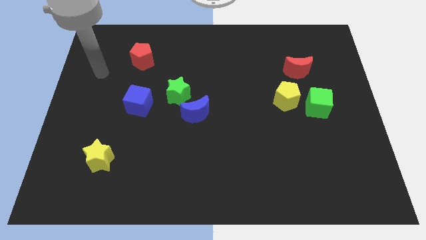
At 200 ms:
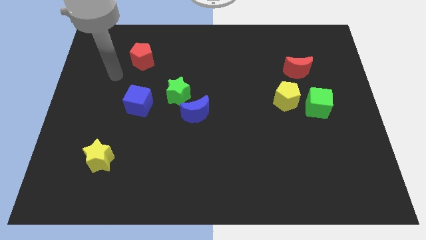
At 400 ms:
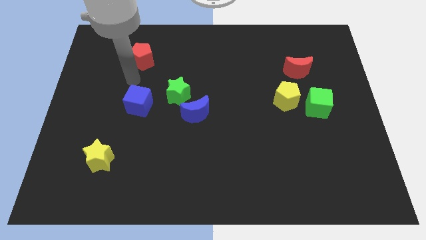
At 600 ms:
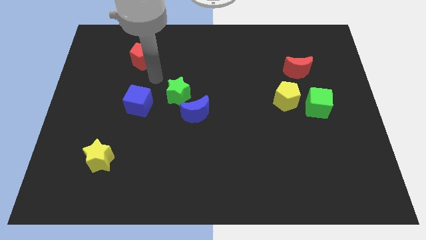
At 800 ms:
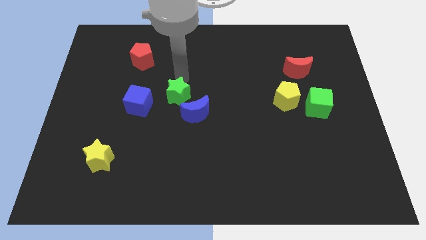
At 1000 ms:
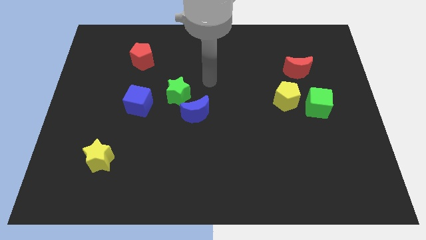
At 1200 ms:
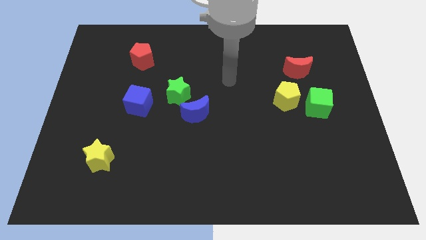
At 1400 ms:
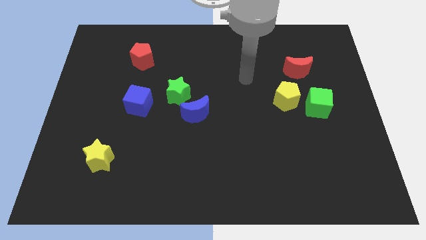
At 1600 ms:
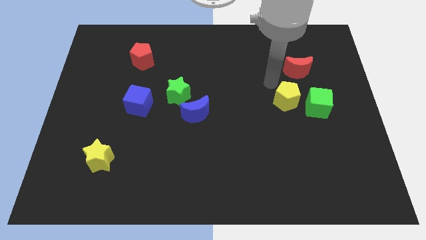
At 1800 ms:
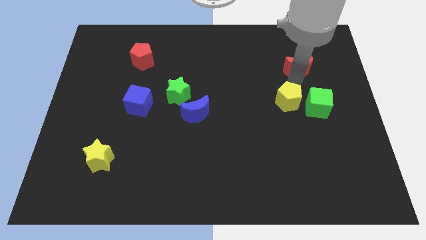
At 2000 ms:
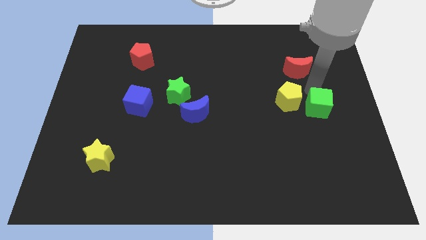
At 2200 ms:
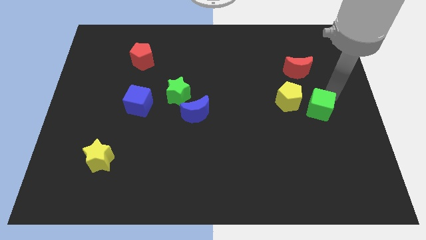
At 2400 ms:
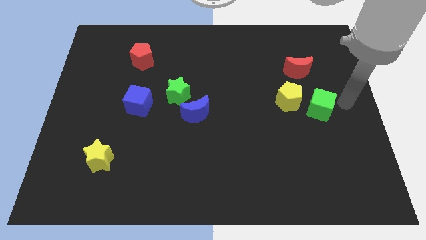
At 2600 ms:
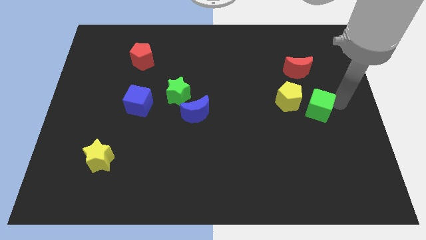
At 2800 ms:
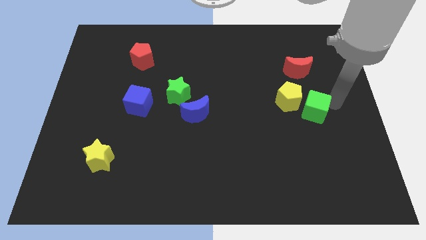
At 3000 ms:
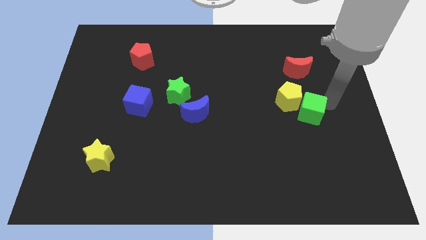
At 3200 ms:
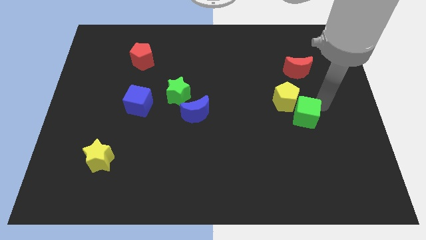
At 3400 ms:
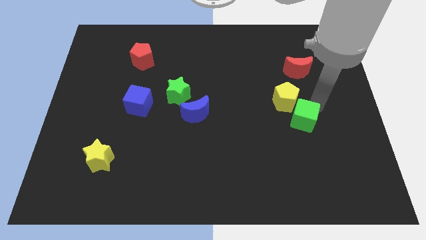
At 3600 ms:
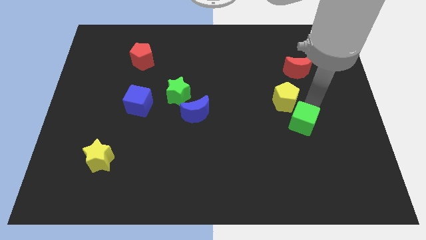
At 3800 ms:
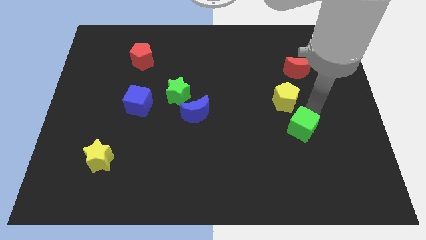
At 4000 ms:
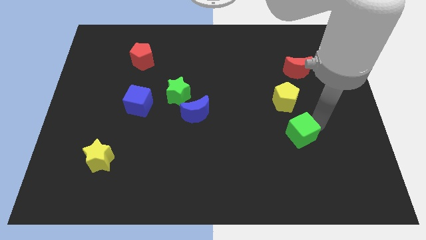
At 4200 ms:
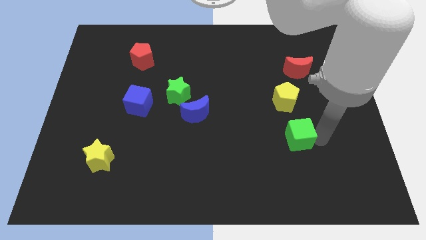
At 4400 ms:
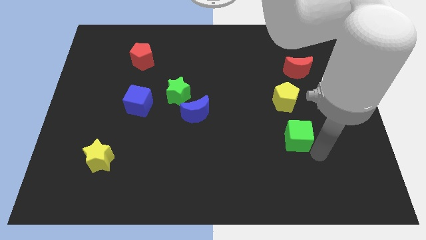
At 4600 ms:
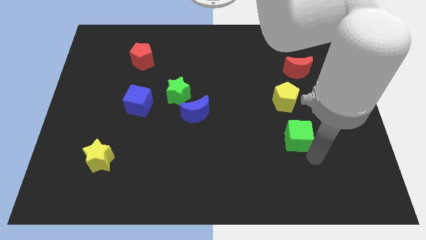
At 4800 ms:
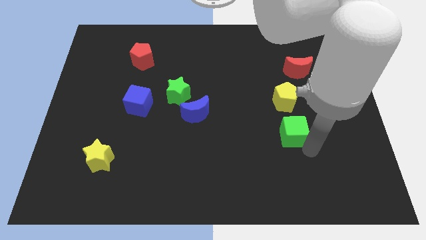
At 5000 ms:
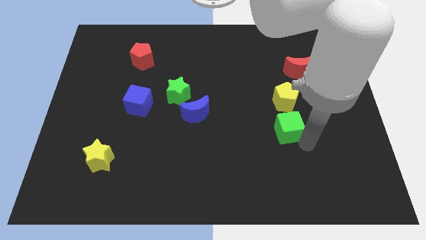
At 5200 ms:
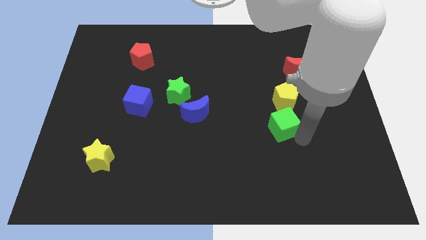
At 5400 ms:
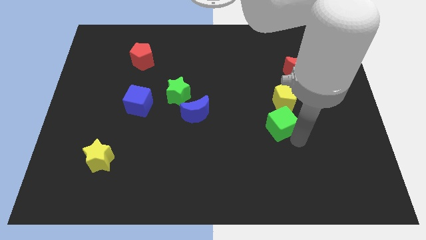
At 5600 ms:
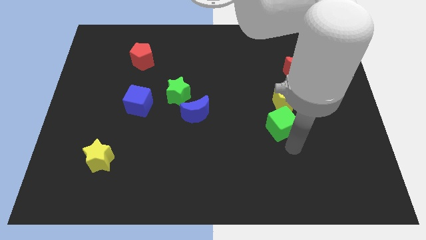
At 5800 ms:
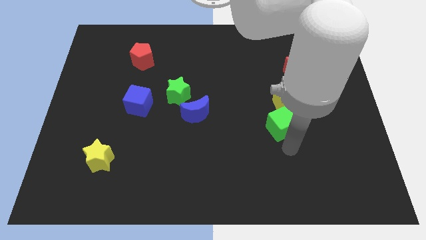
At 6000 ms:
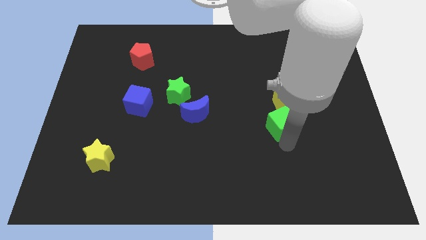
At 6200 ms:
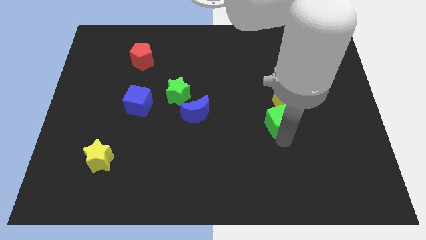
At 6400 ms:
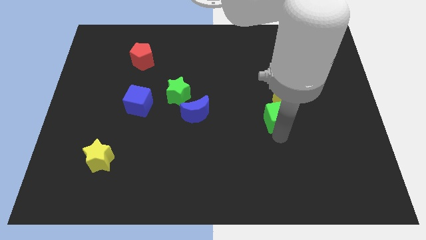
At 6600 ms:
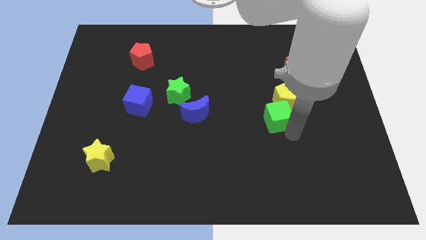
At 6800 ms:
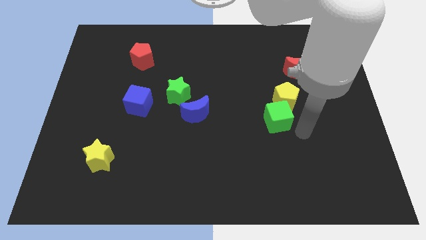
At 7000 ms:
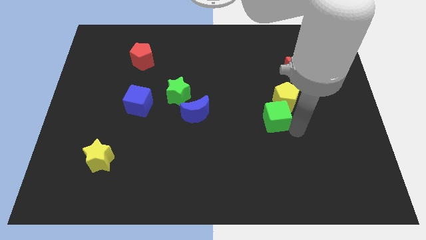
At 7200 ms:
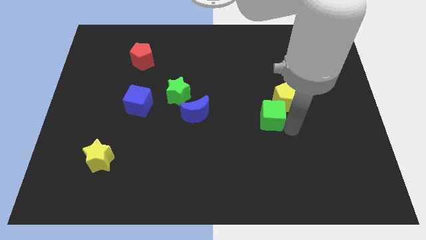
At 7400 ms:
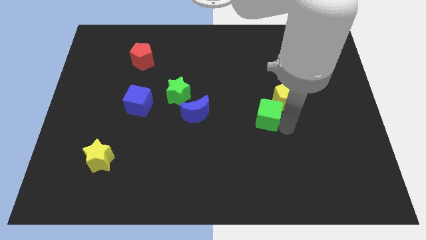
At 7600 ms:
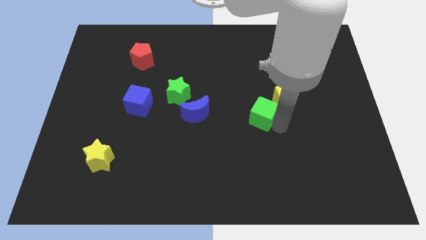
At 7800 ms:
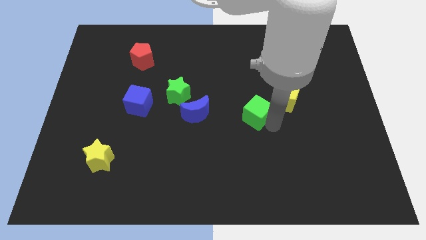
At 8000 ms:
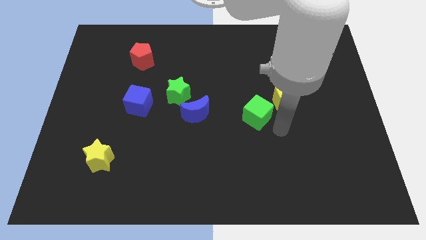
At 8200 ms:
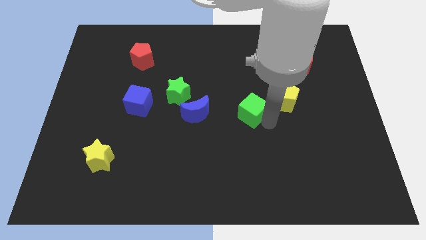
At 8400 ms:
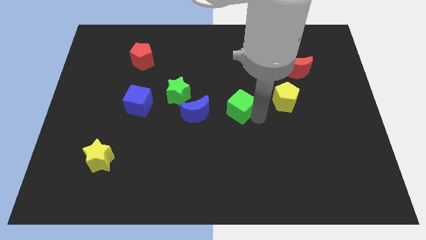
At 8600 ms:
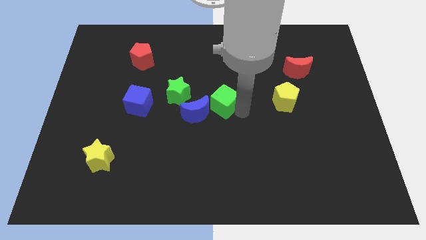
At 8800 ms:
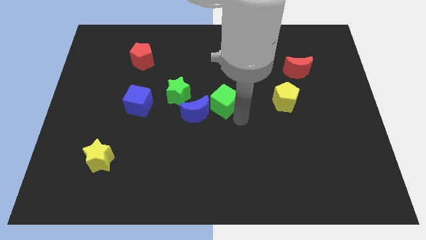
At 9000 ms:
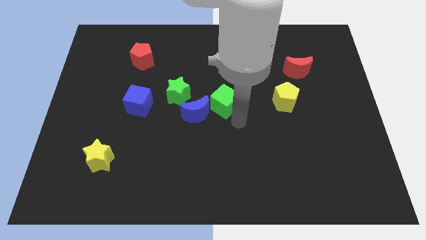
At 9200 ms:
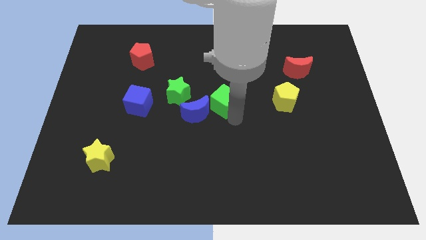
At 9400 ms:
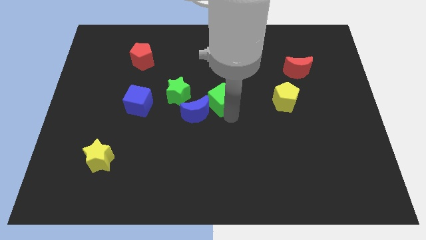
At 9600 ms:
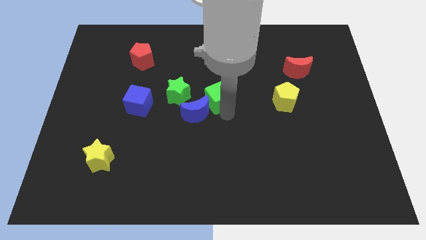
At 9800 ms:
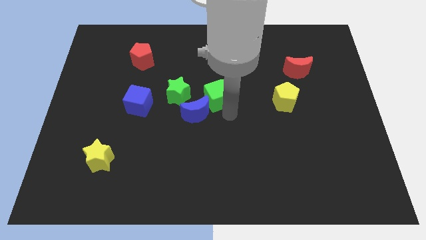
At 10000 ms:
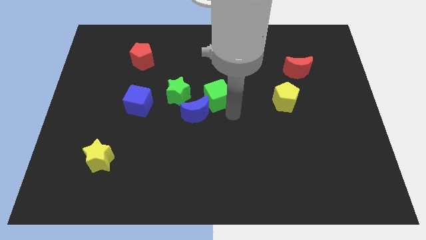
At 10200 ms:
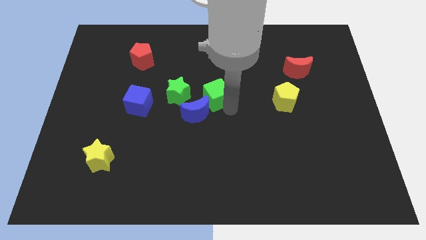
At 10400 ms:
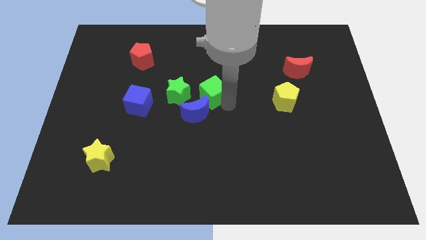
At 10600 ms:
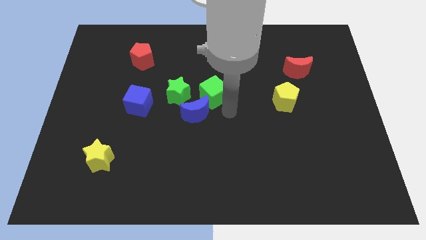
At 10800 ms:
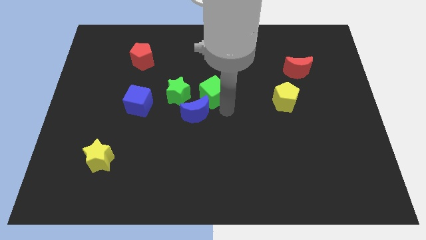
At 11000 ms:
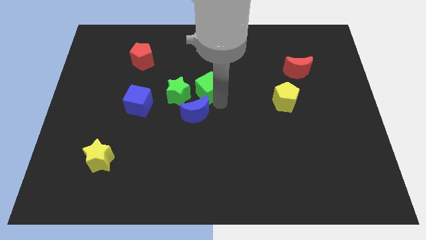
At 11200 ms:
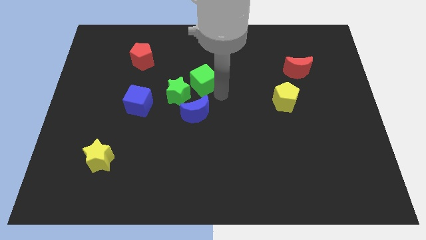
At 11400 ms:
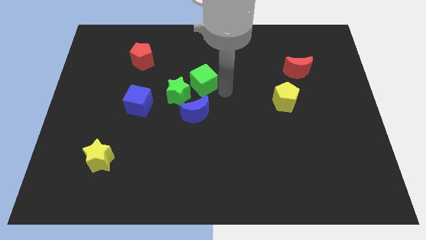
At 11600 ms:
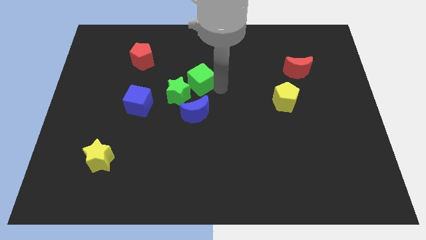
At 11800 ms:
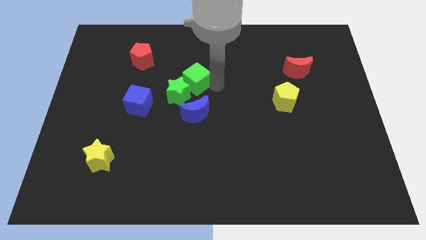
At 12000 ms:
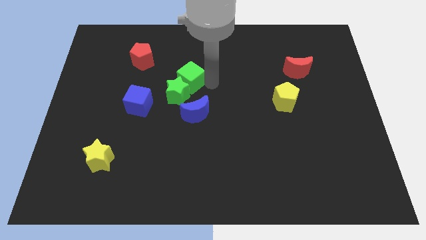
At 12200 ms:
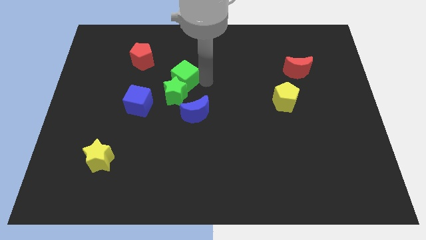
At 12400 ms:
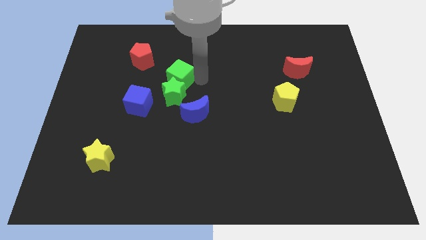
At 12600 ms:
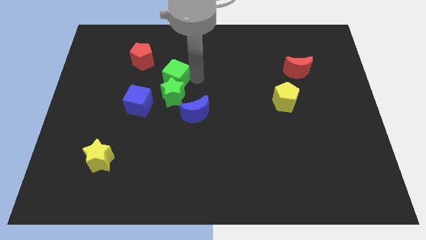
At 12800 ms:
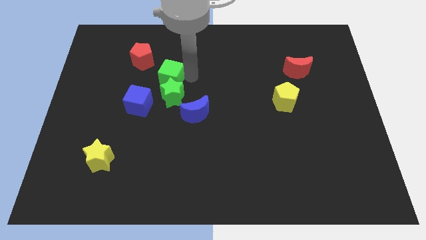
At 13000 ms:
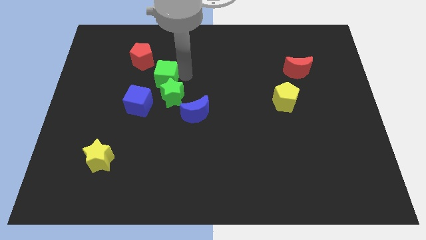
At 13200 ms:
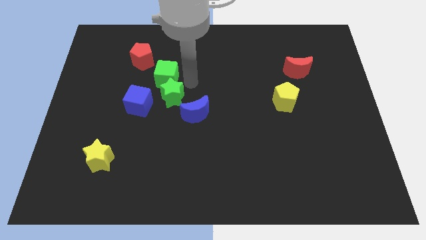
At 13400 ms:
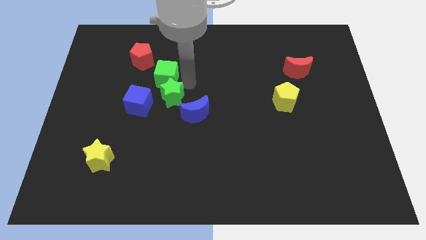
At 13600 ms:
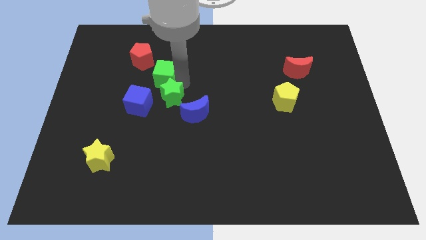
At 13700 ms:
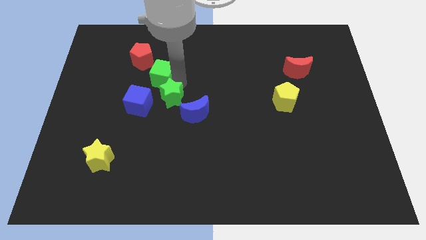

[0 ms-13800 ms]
push the green cube to the top of the blue cube
